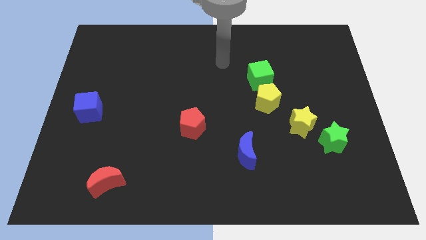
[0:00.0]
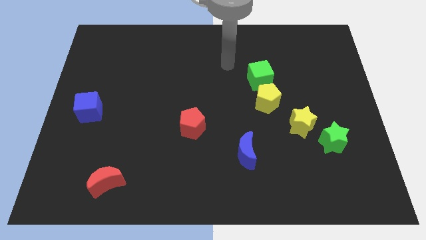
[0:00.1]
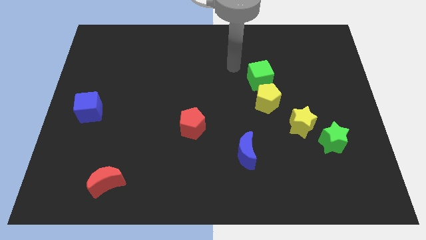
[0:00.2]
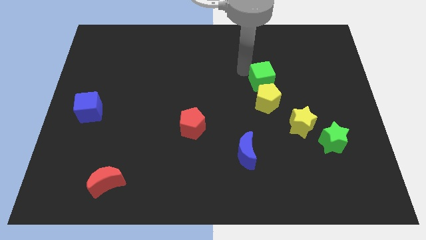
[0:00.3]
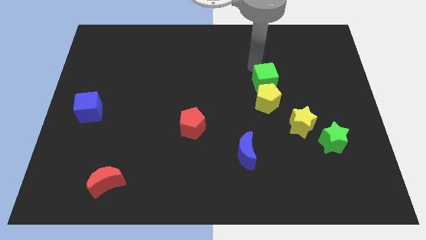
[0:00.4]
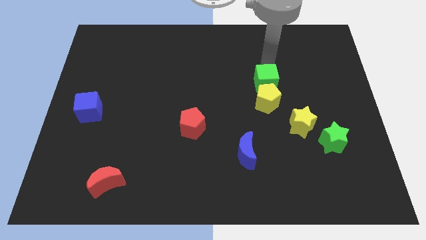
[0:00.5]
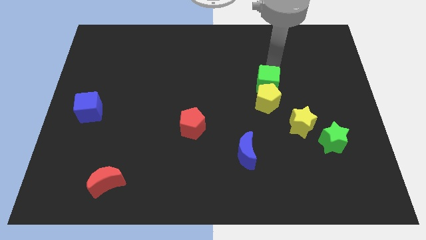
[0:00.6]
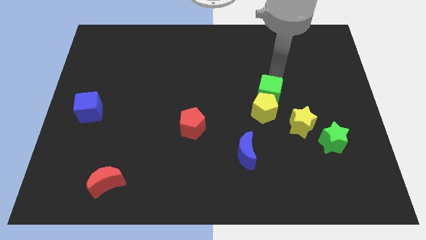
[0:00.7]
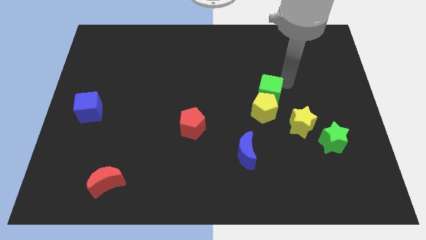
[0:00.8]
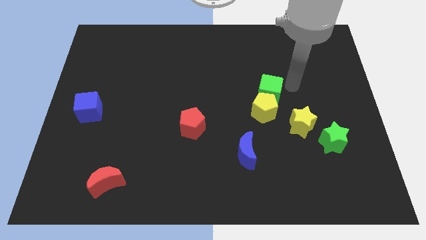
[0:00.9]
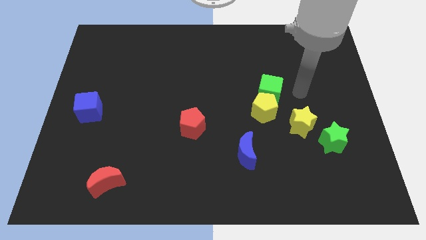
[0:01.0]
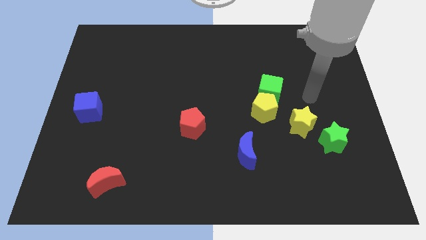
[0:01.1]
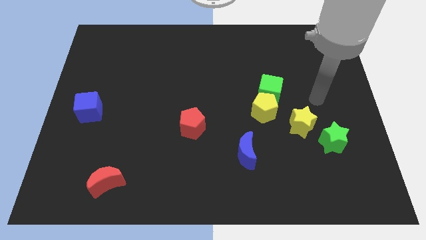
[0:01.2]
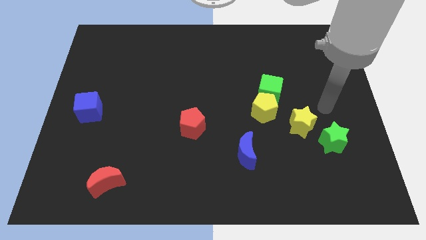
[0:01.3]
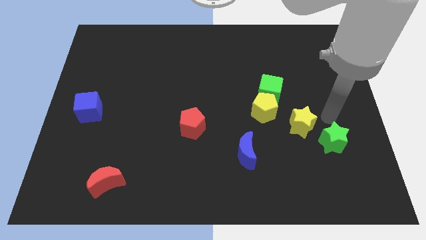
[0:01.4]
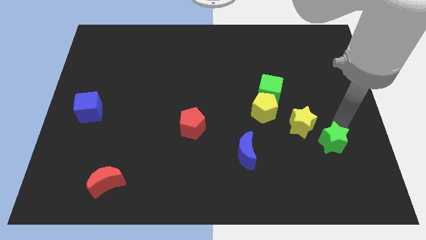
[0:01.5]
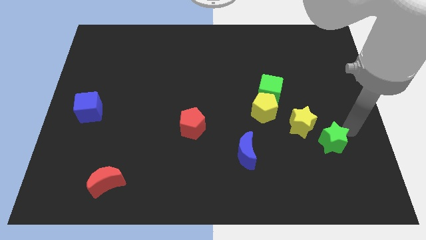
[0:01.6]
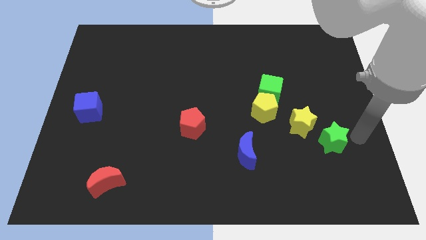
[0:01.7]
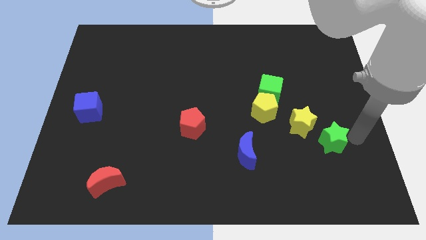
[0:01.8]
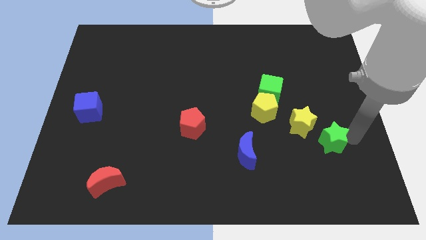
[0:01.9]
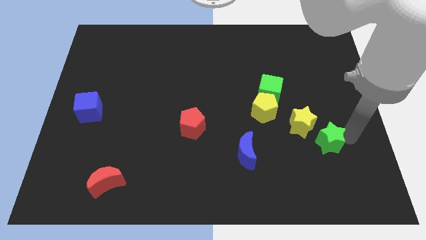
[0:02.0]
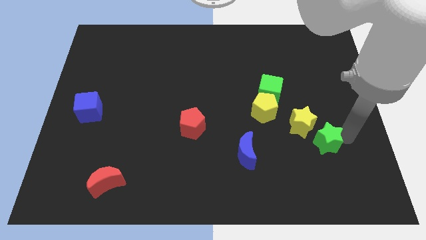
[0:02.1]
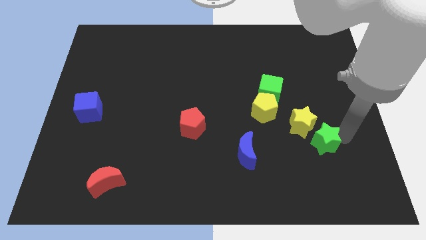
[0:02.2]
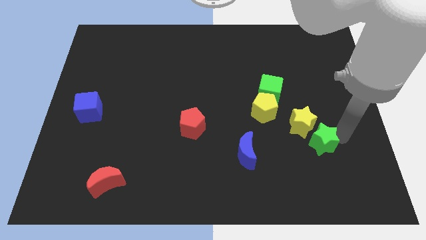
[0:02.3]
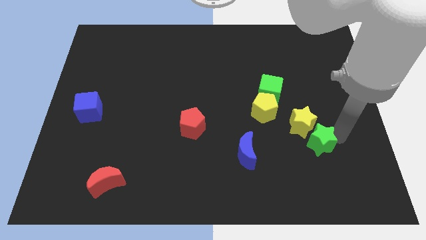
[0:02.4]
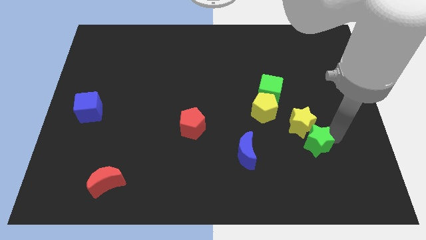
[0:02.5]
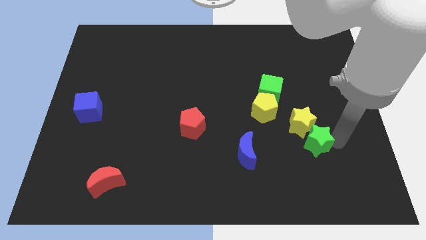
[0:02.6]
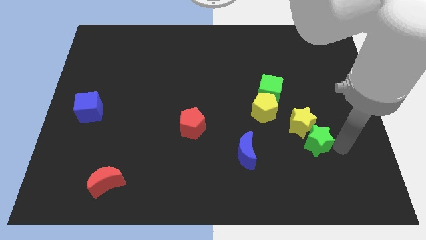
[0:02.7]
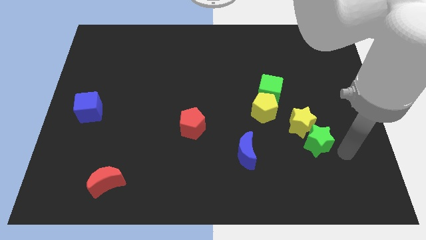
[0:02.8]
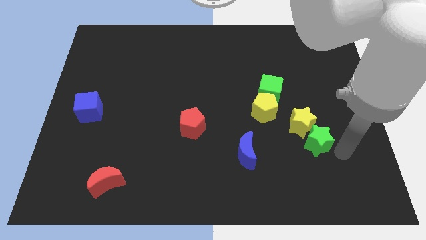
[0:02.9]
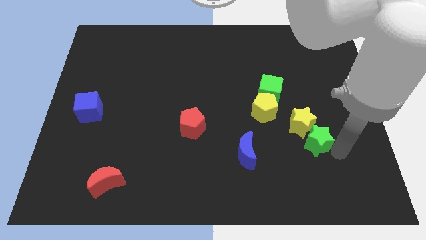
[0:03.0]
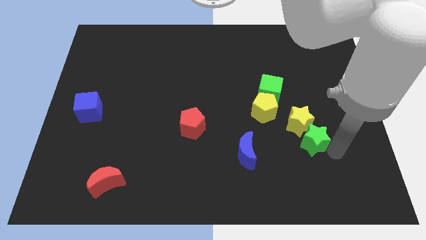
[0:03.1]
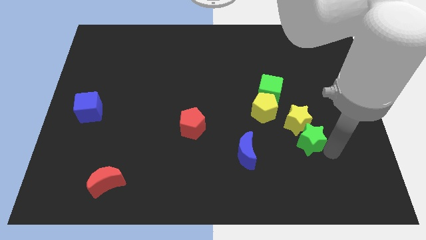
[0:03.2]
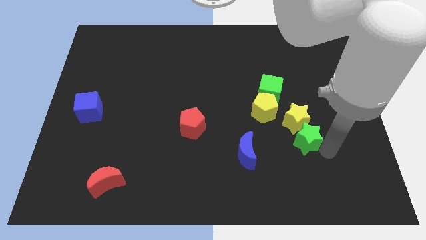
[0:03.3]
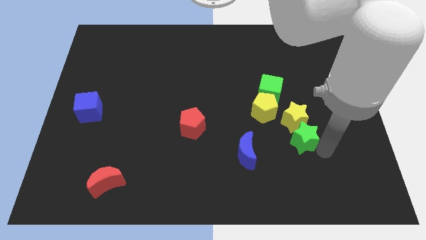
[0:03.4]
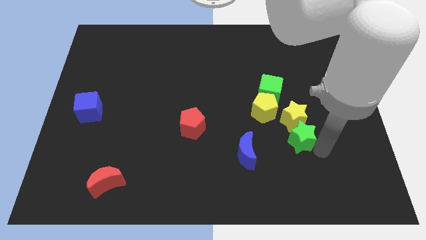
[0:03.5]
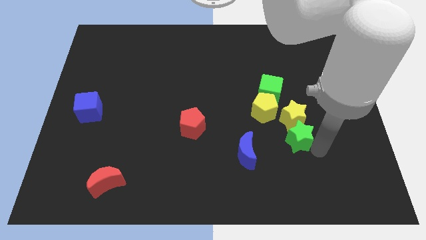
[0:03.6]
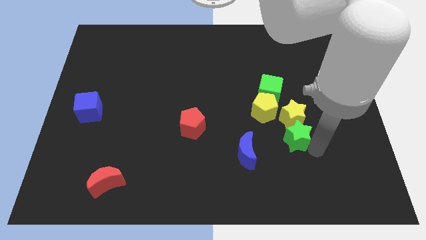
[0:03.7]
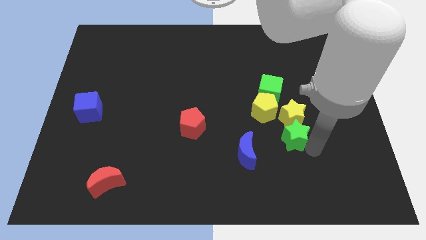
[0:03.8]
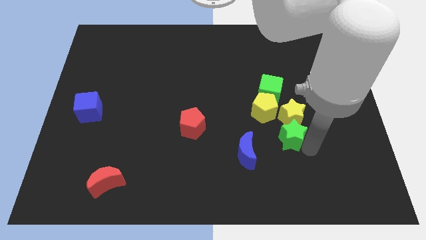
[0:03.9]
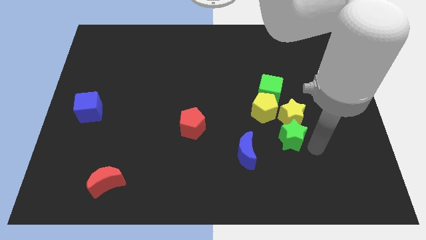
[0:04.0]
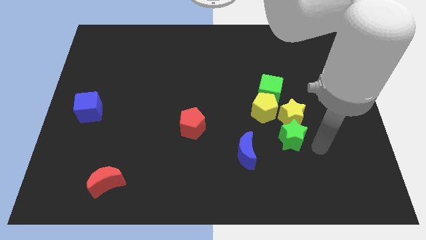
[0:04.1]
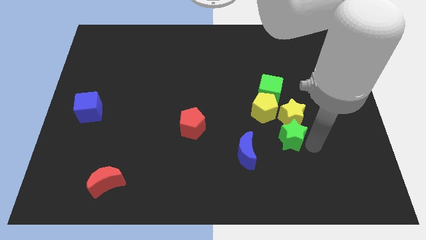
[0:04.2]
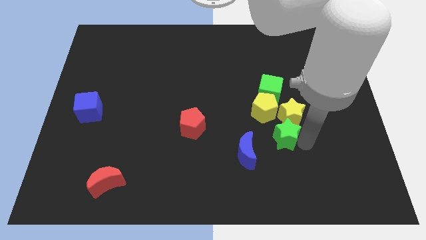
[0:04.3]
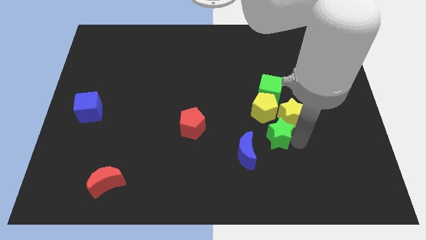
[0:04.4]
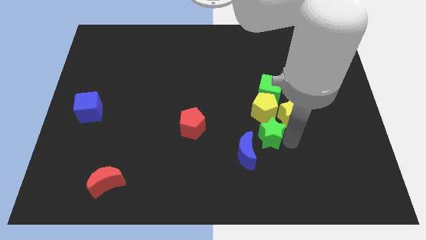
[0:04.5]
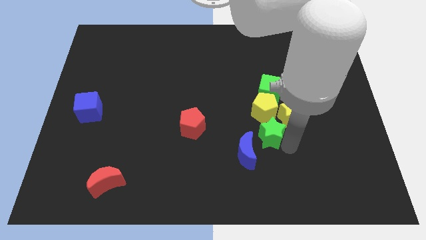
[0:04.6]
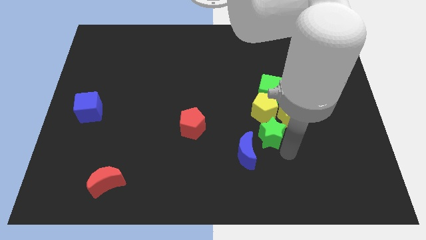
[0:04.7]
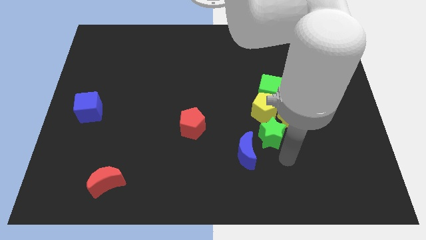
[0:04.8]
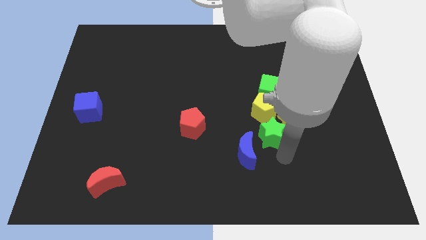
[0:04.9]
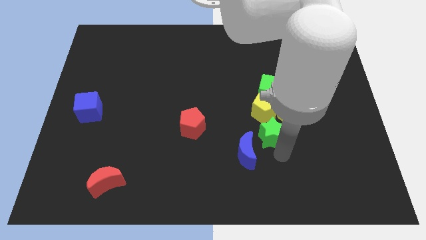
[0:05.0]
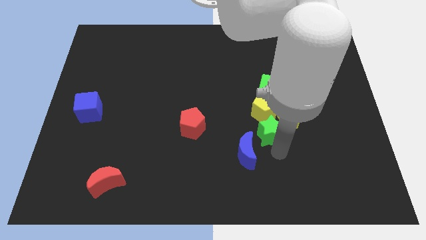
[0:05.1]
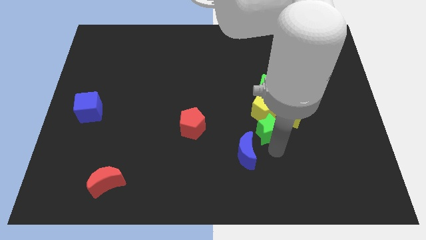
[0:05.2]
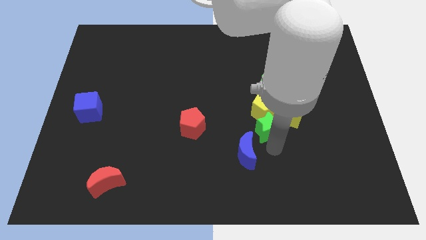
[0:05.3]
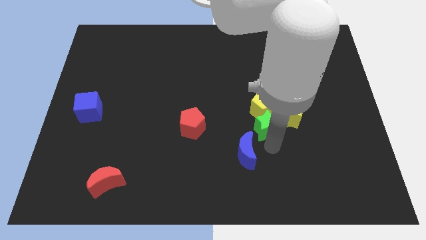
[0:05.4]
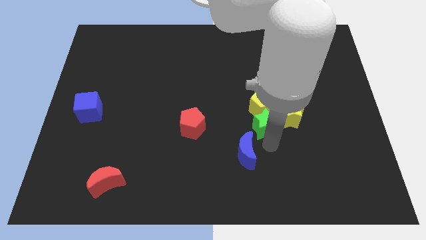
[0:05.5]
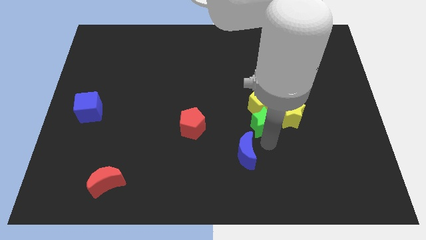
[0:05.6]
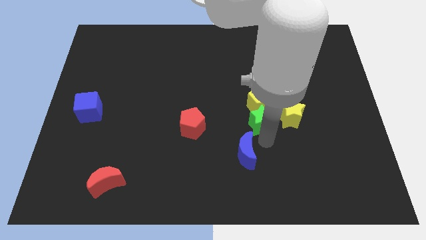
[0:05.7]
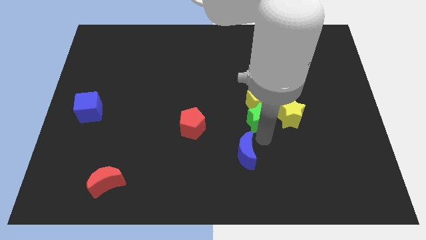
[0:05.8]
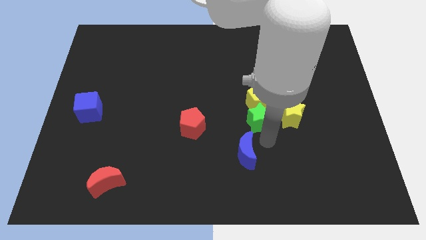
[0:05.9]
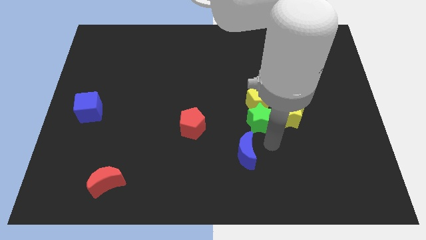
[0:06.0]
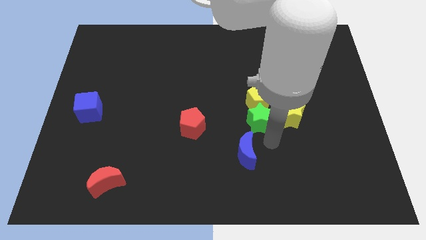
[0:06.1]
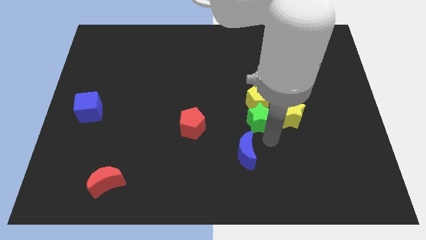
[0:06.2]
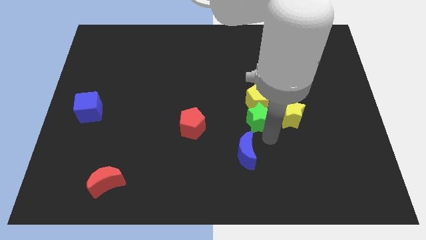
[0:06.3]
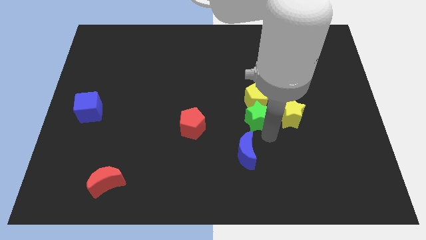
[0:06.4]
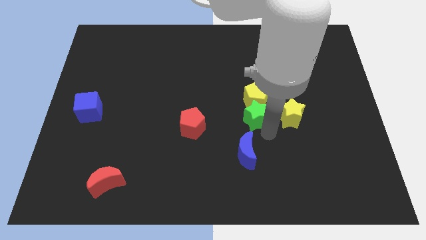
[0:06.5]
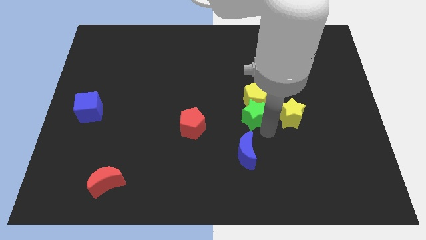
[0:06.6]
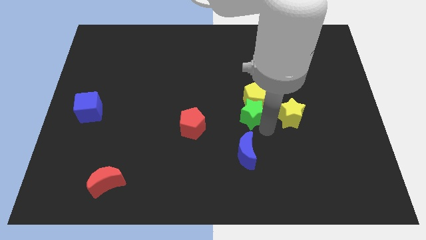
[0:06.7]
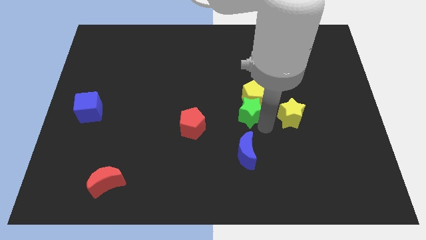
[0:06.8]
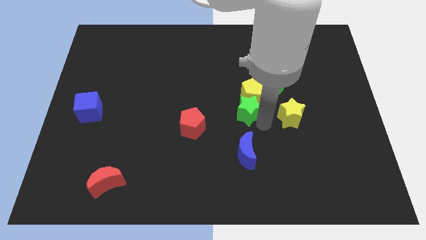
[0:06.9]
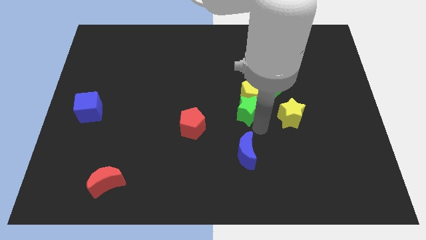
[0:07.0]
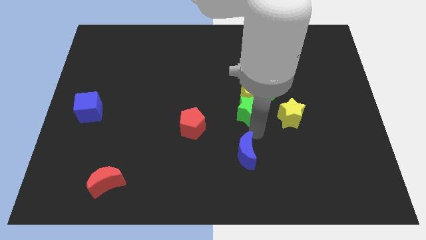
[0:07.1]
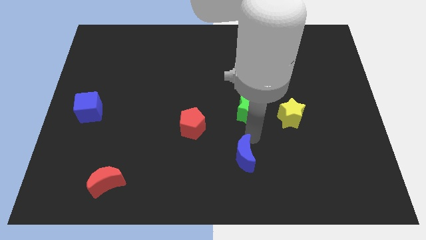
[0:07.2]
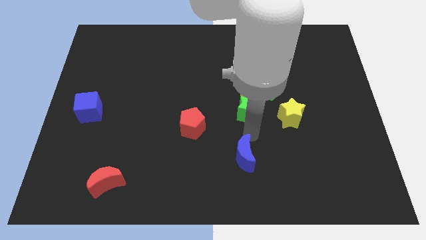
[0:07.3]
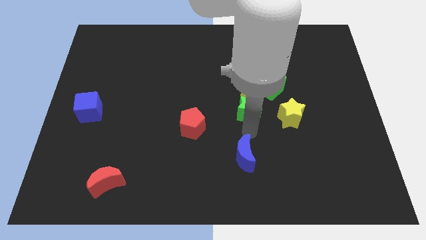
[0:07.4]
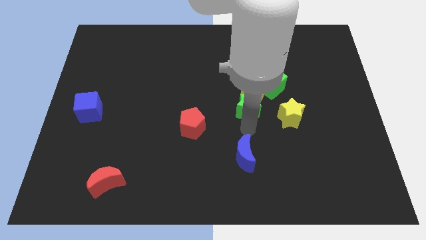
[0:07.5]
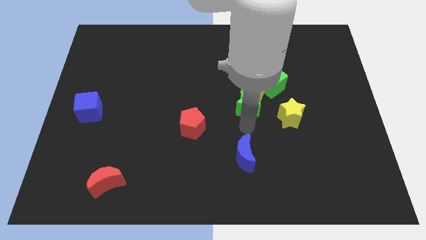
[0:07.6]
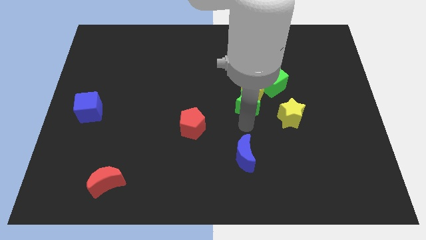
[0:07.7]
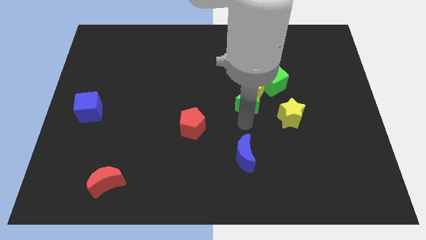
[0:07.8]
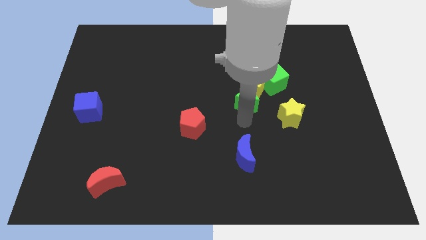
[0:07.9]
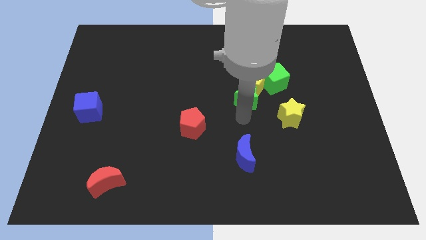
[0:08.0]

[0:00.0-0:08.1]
push the green star upwards and then left

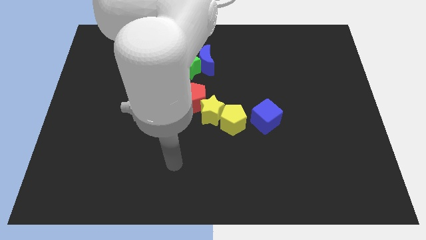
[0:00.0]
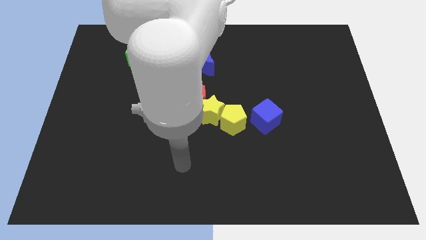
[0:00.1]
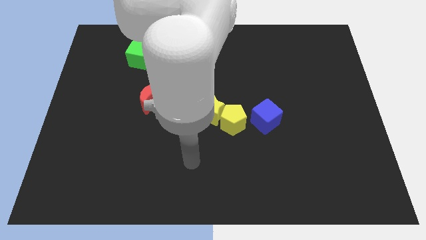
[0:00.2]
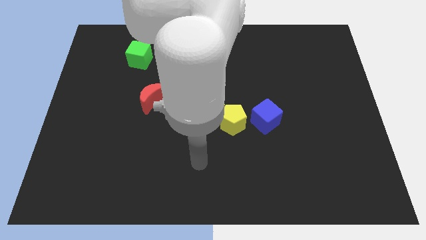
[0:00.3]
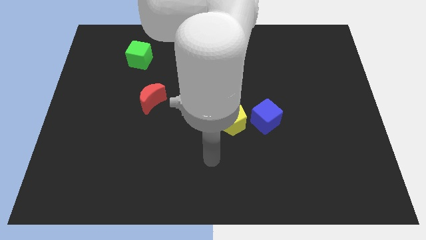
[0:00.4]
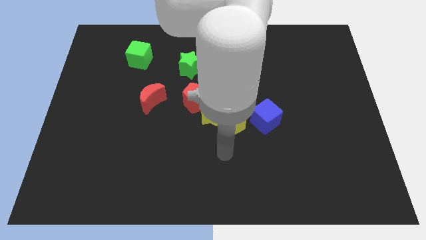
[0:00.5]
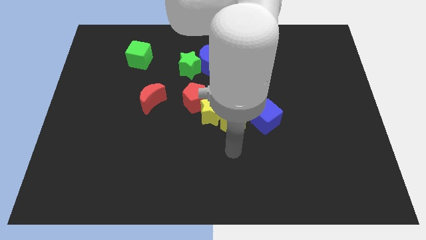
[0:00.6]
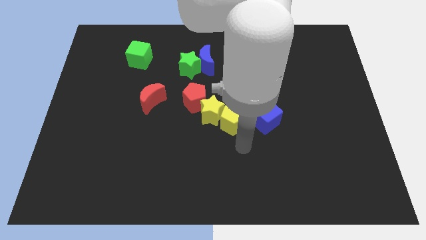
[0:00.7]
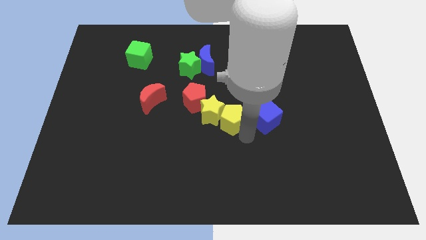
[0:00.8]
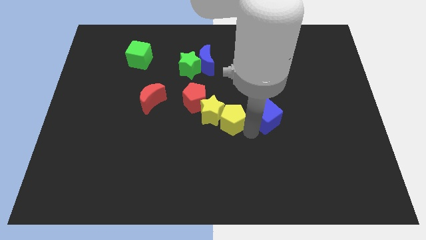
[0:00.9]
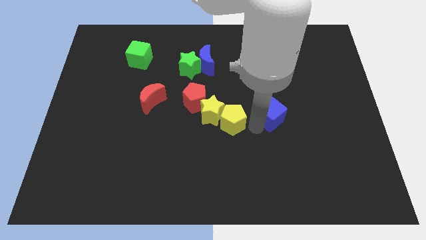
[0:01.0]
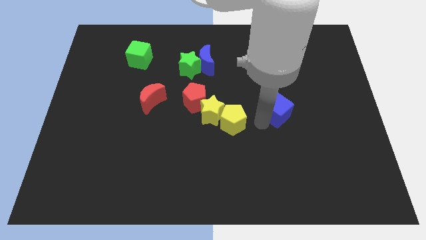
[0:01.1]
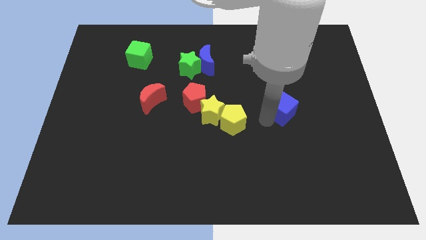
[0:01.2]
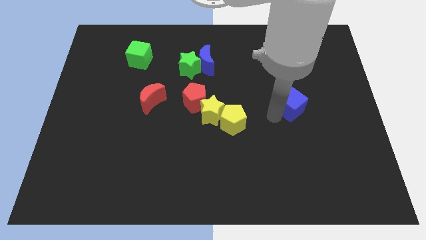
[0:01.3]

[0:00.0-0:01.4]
slightly push the blue cube up and to the right
